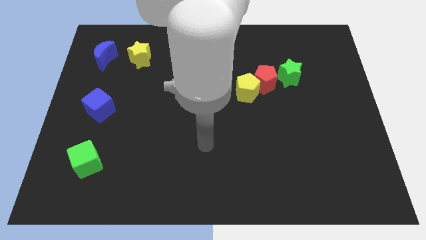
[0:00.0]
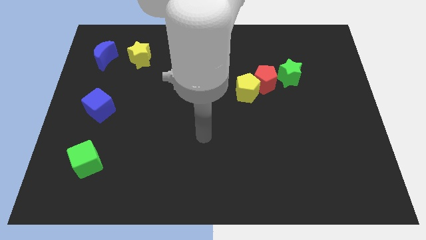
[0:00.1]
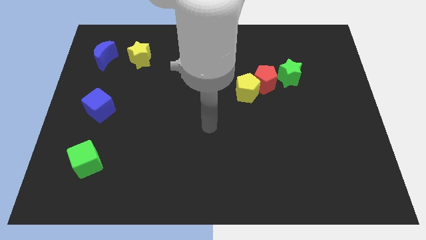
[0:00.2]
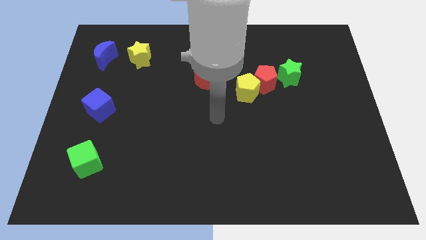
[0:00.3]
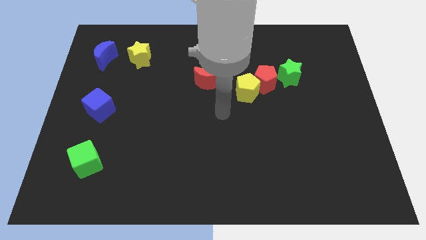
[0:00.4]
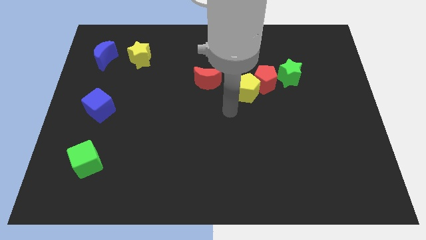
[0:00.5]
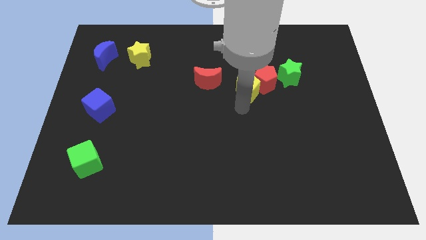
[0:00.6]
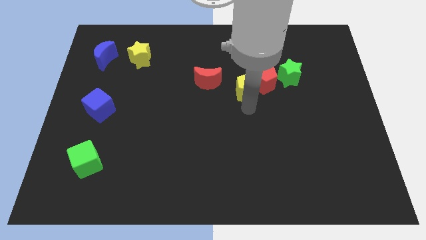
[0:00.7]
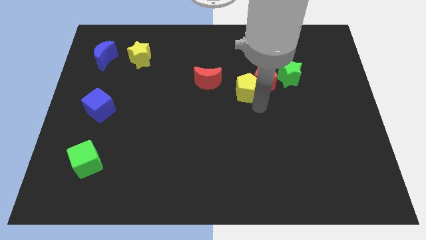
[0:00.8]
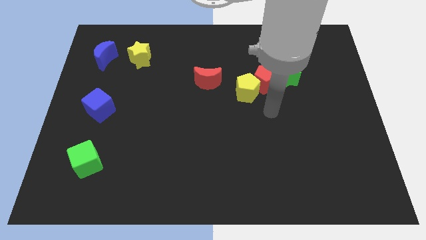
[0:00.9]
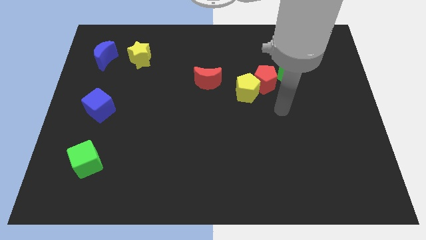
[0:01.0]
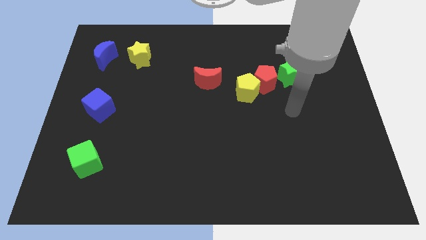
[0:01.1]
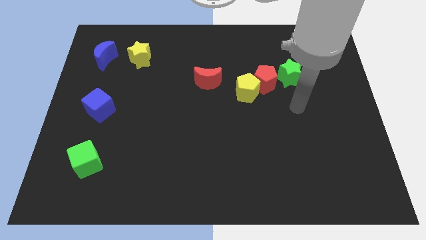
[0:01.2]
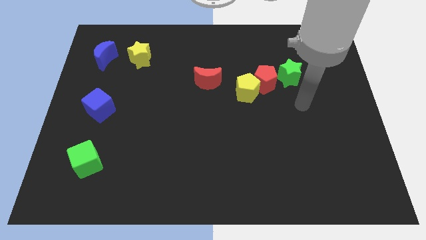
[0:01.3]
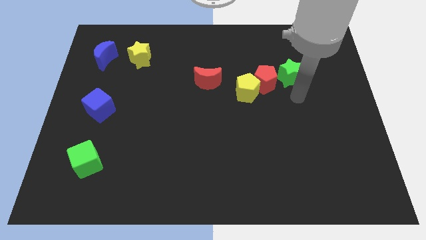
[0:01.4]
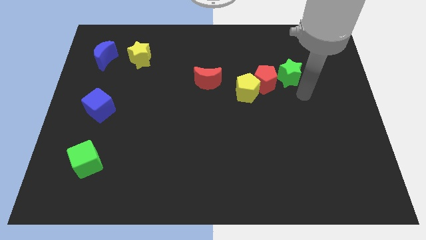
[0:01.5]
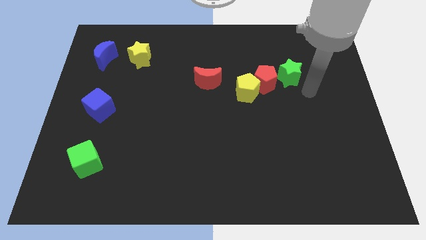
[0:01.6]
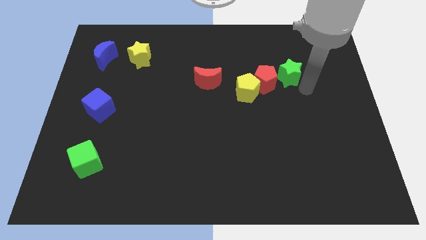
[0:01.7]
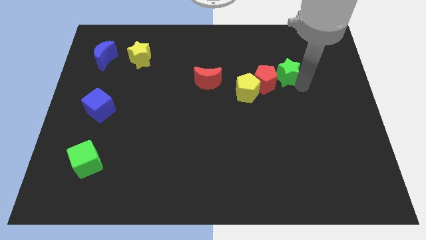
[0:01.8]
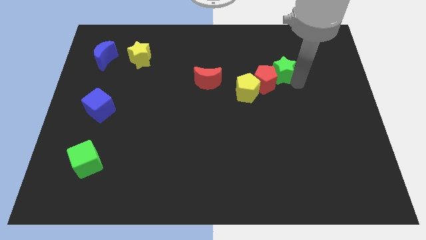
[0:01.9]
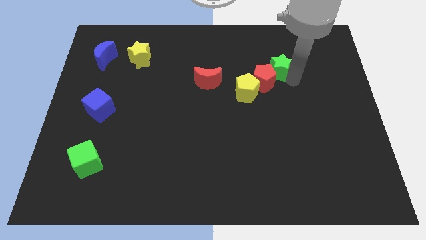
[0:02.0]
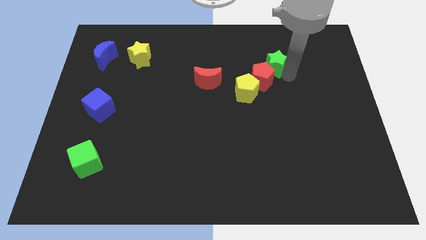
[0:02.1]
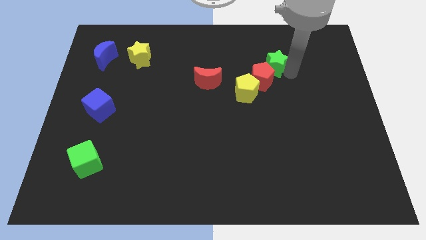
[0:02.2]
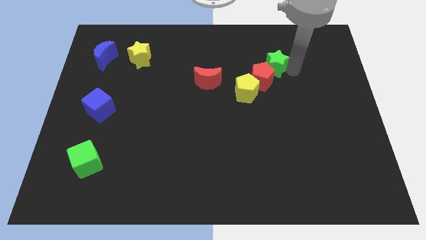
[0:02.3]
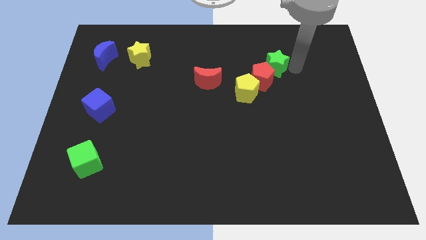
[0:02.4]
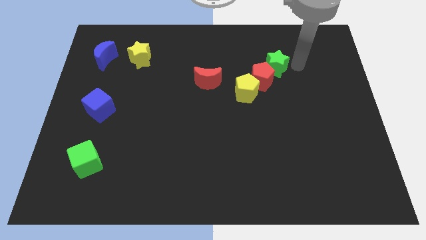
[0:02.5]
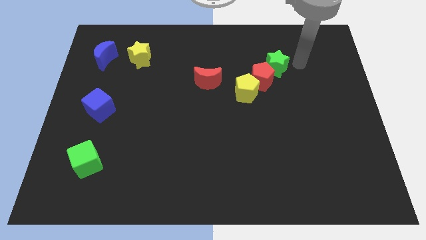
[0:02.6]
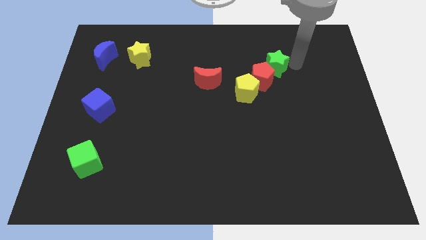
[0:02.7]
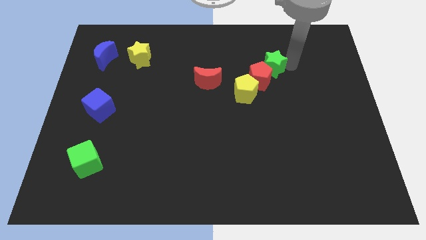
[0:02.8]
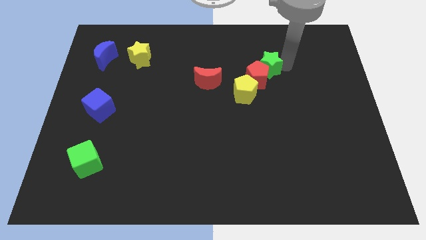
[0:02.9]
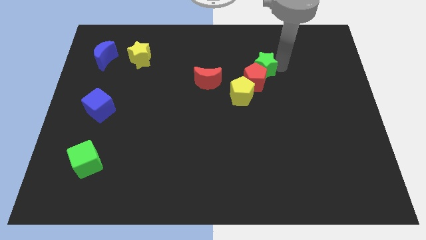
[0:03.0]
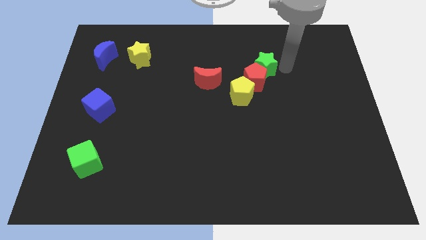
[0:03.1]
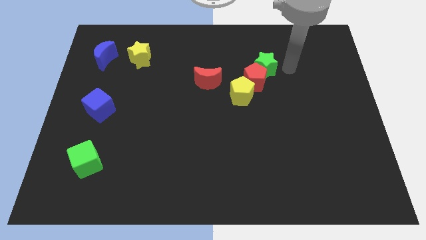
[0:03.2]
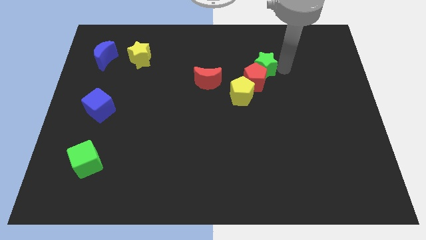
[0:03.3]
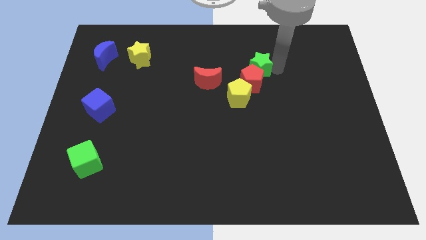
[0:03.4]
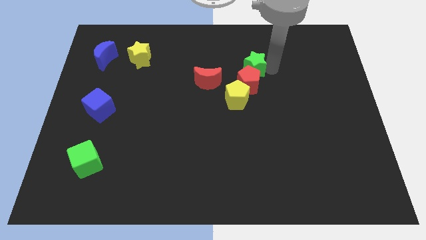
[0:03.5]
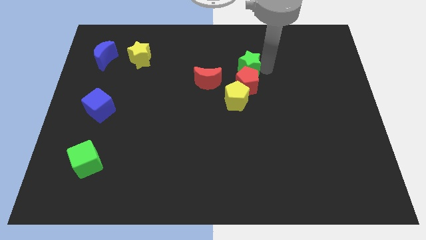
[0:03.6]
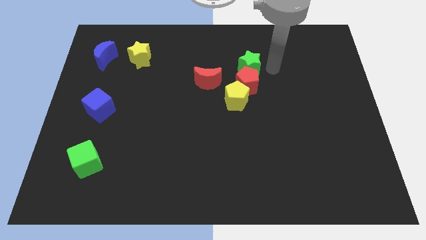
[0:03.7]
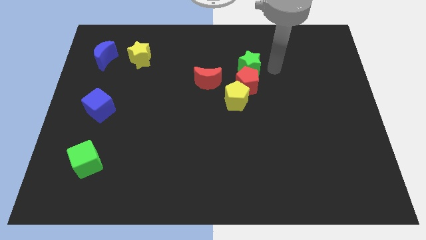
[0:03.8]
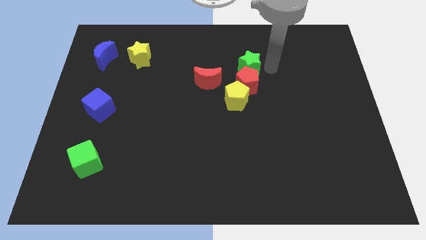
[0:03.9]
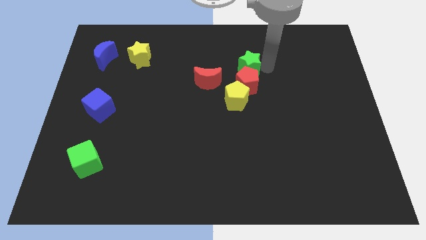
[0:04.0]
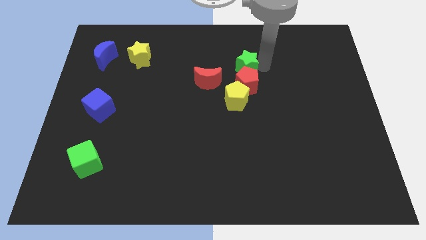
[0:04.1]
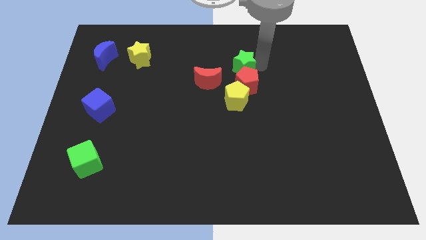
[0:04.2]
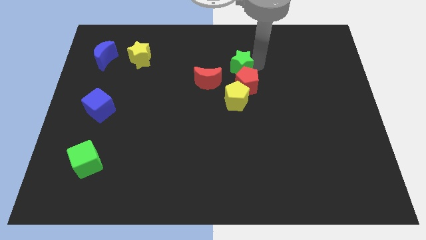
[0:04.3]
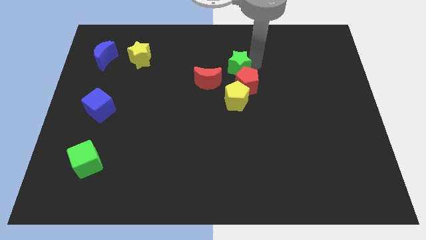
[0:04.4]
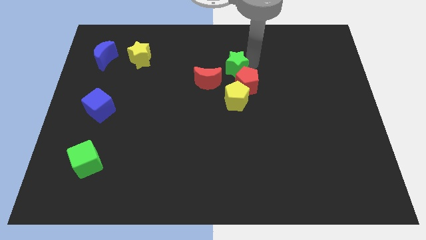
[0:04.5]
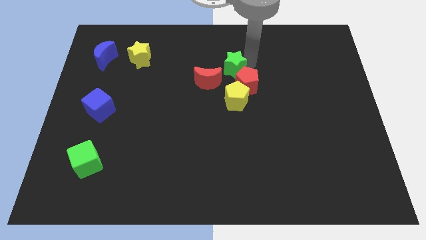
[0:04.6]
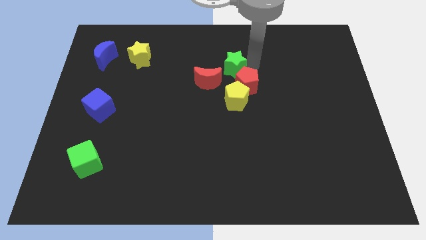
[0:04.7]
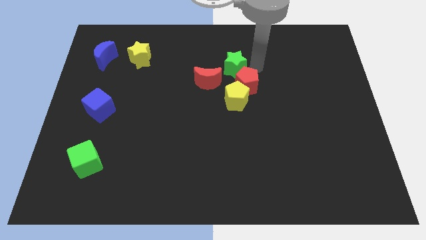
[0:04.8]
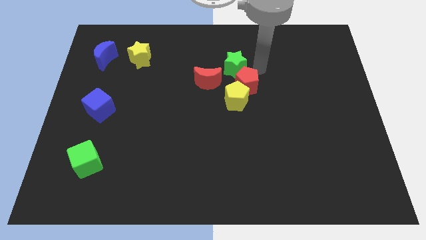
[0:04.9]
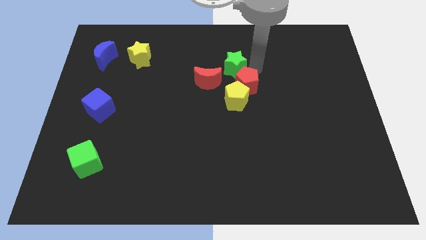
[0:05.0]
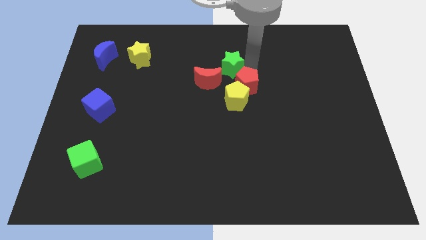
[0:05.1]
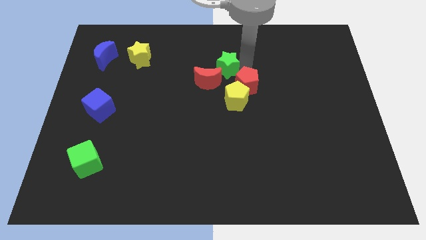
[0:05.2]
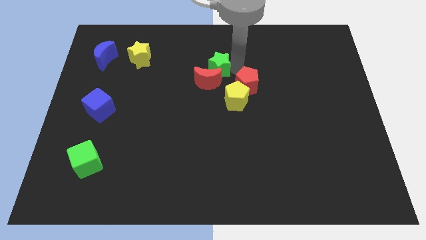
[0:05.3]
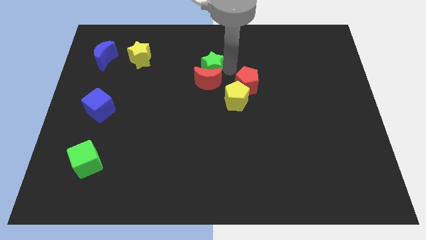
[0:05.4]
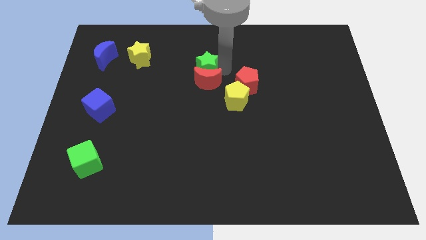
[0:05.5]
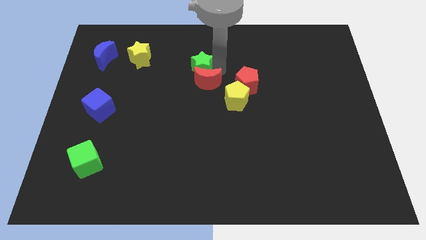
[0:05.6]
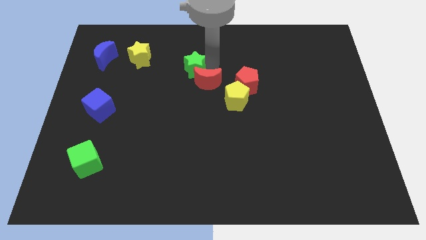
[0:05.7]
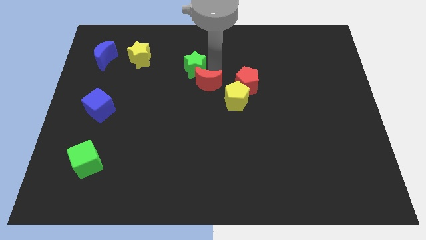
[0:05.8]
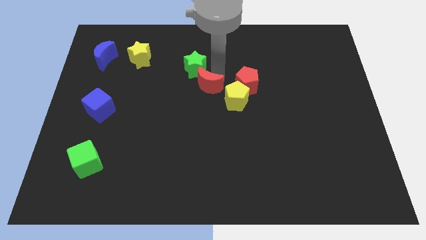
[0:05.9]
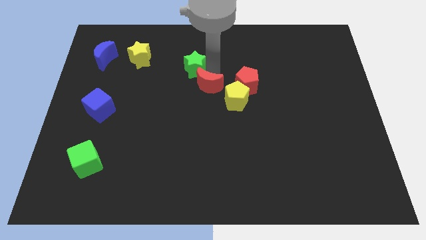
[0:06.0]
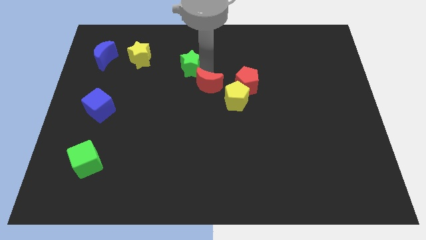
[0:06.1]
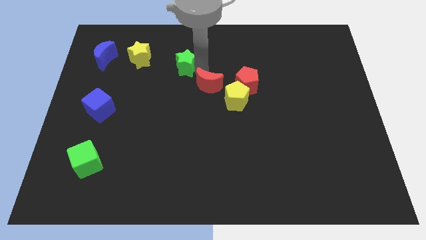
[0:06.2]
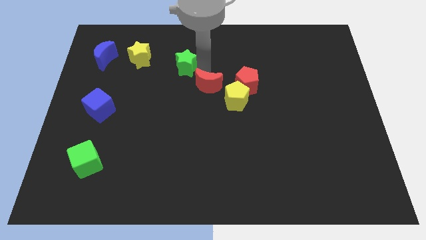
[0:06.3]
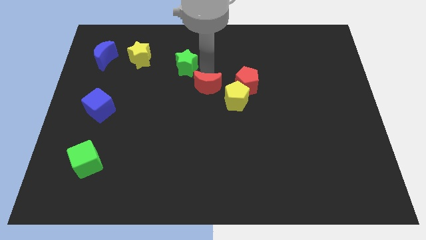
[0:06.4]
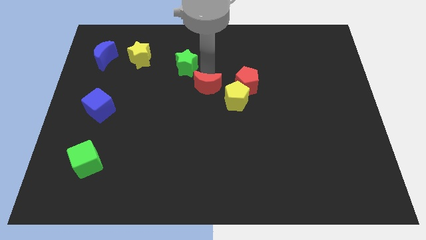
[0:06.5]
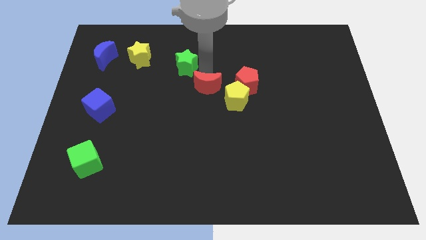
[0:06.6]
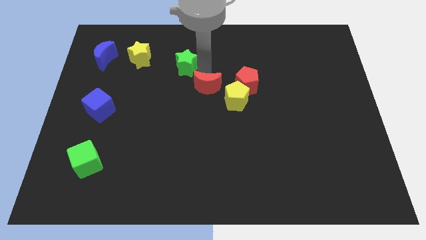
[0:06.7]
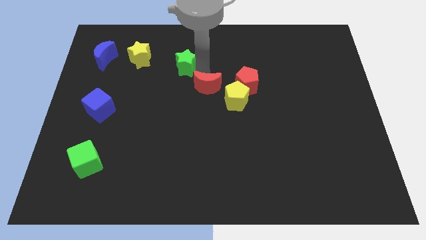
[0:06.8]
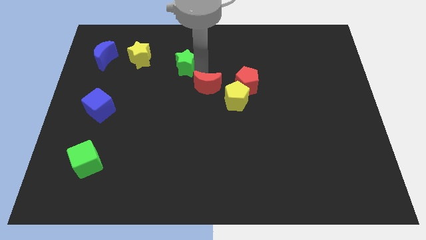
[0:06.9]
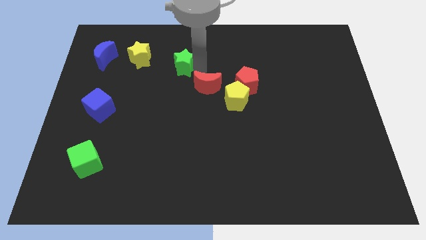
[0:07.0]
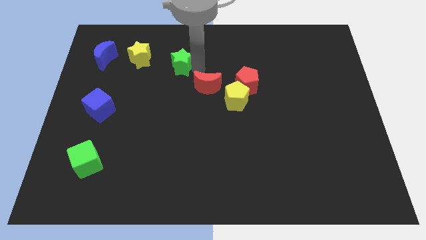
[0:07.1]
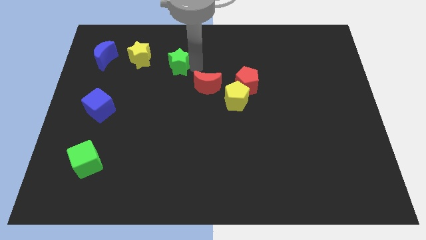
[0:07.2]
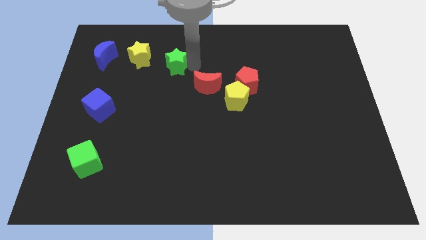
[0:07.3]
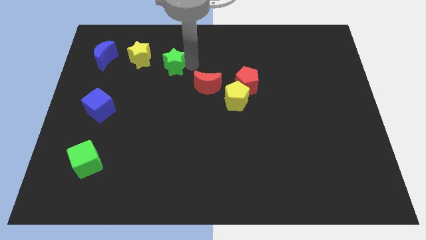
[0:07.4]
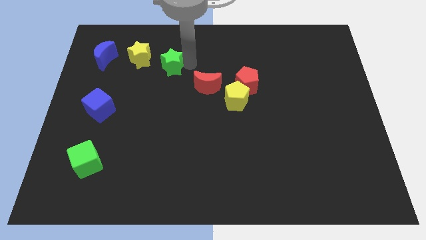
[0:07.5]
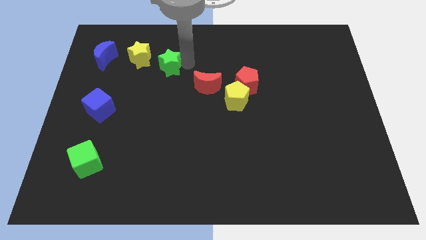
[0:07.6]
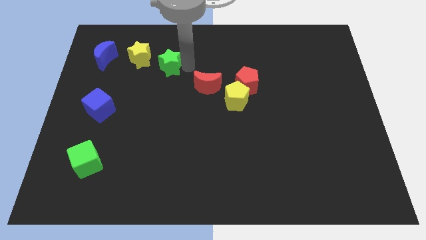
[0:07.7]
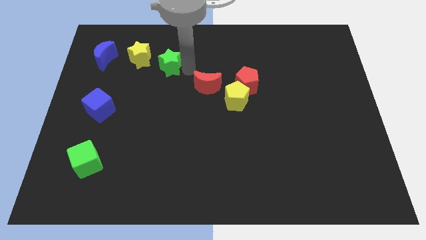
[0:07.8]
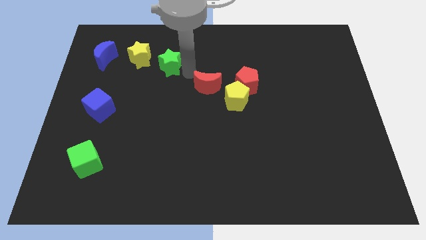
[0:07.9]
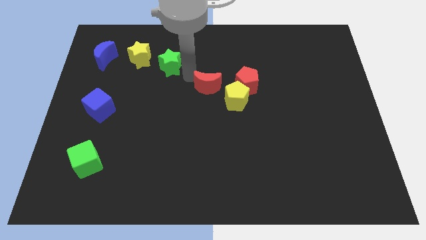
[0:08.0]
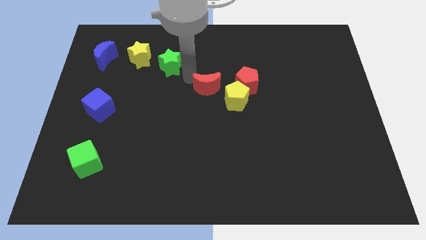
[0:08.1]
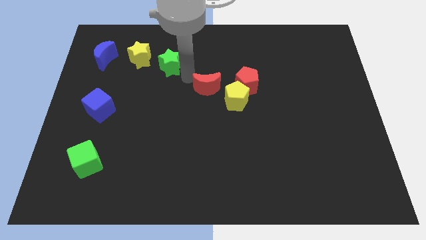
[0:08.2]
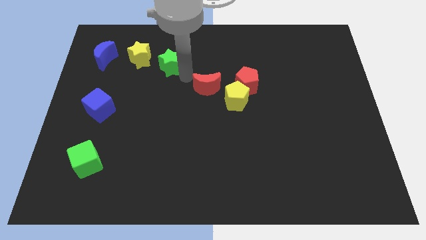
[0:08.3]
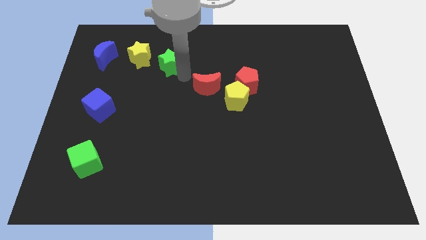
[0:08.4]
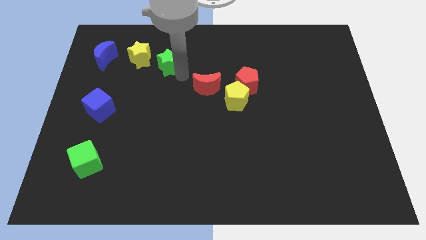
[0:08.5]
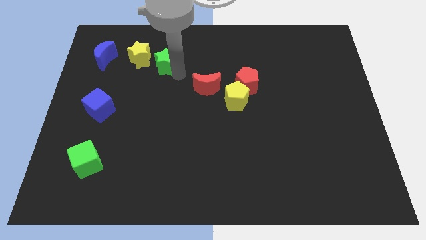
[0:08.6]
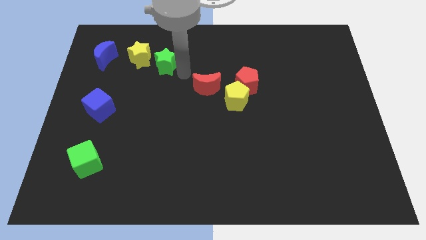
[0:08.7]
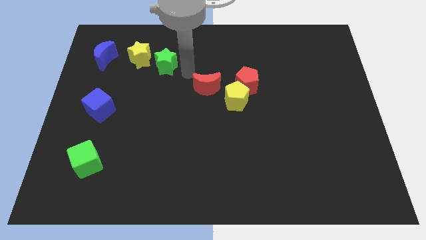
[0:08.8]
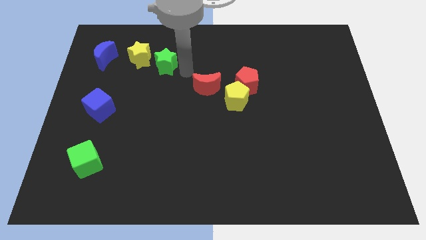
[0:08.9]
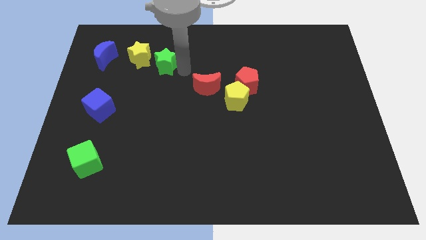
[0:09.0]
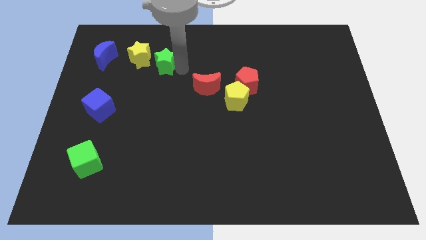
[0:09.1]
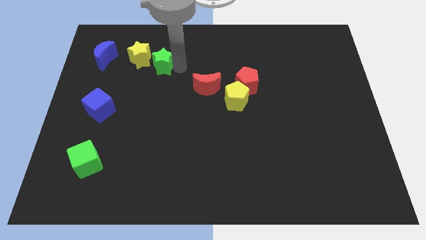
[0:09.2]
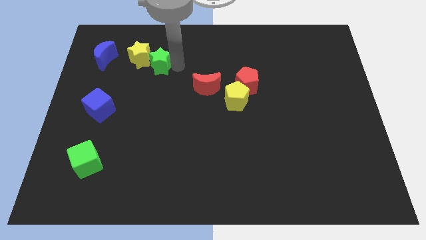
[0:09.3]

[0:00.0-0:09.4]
push the green star close to the yellow star
